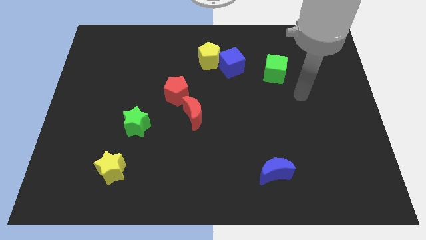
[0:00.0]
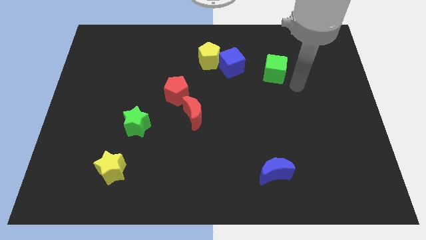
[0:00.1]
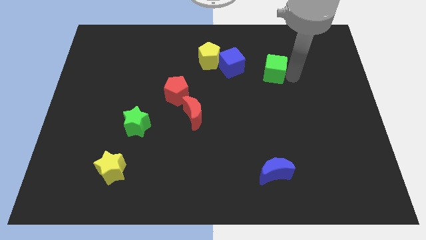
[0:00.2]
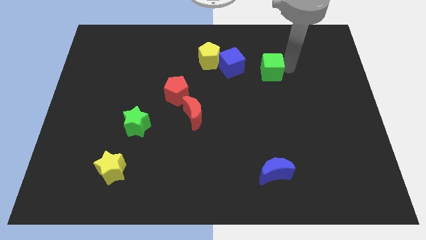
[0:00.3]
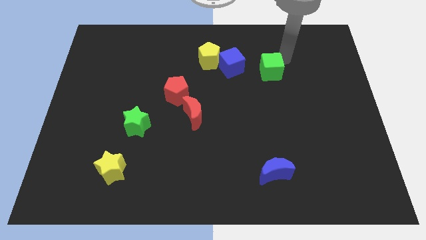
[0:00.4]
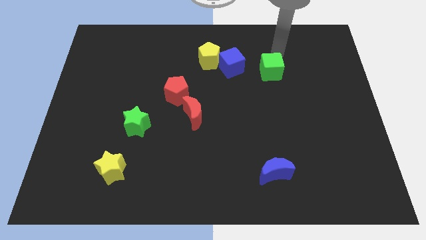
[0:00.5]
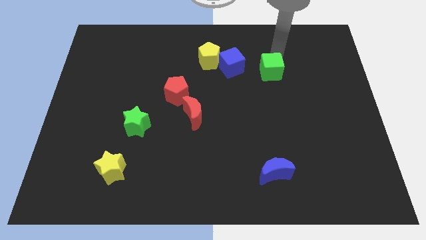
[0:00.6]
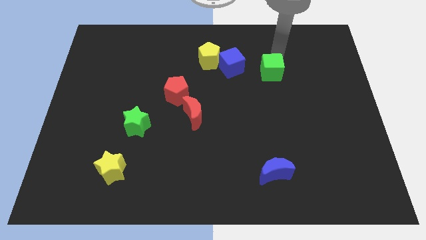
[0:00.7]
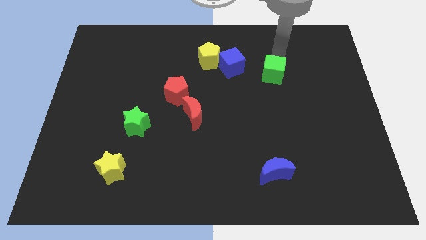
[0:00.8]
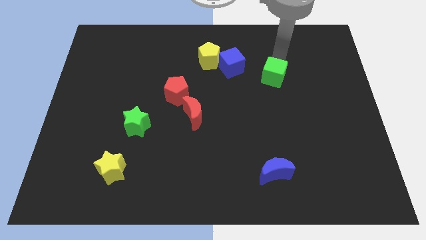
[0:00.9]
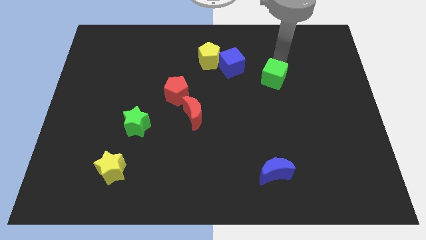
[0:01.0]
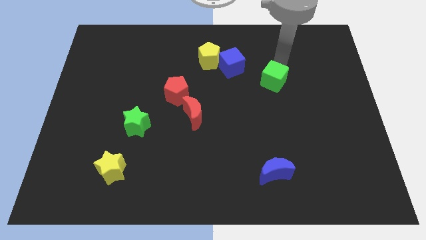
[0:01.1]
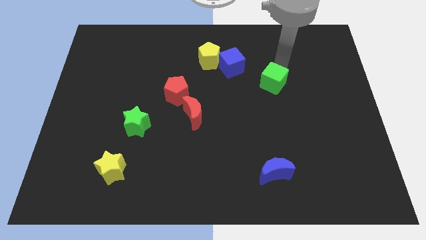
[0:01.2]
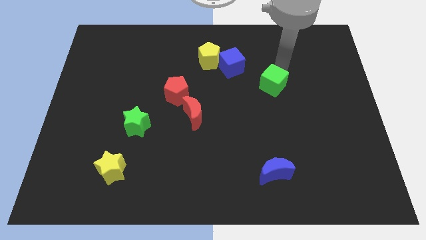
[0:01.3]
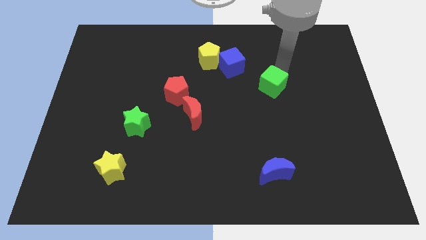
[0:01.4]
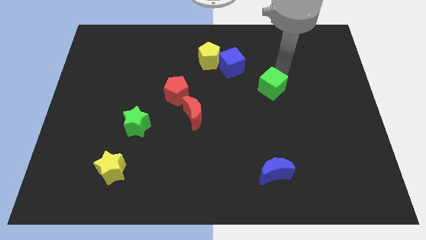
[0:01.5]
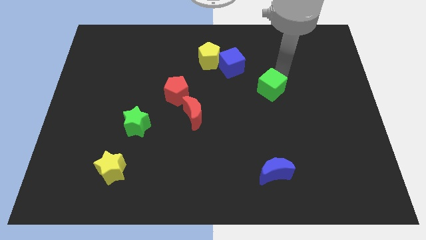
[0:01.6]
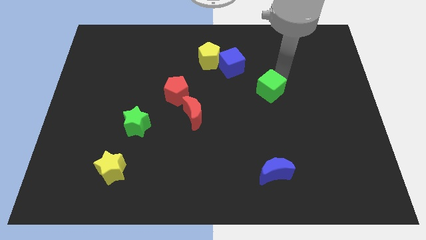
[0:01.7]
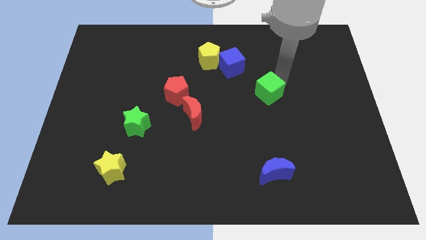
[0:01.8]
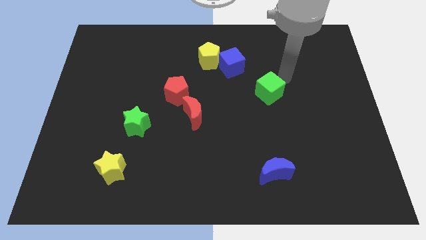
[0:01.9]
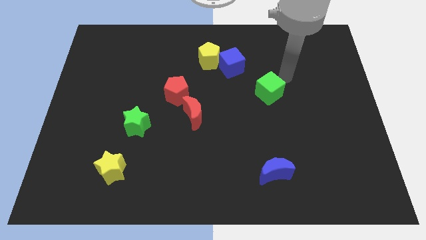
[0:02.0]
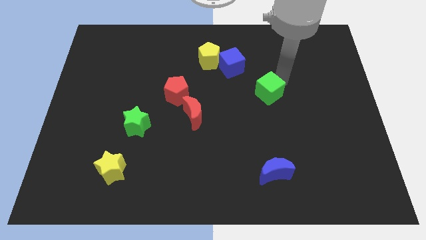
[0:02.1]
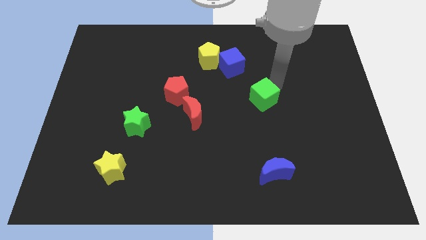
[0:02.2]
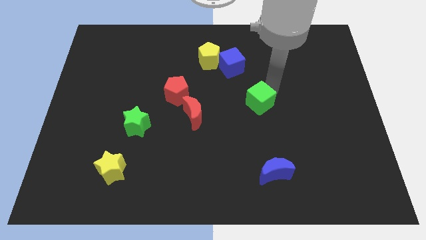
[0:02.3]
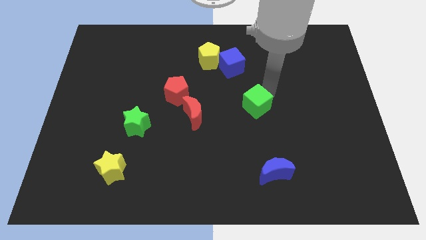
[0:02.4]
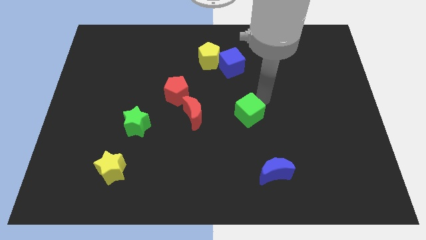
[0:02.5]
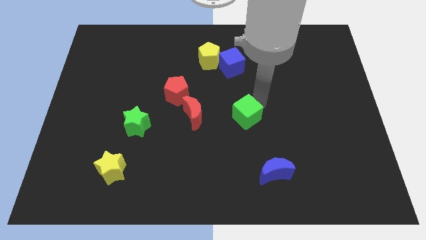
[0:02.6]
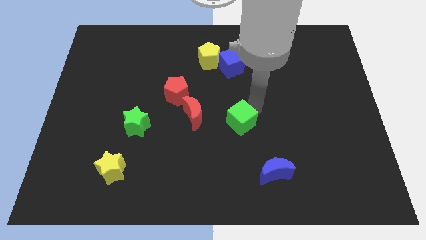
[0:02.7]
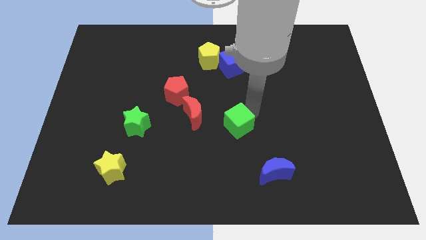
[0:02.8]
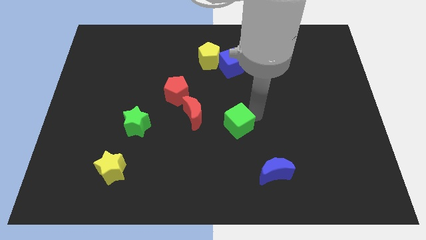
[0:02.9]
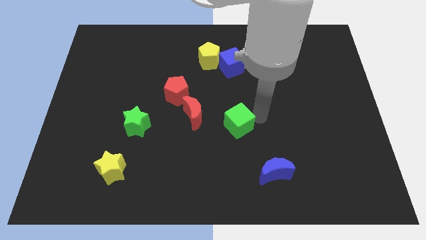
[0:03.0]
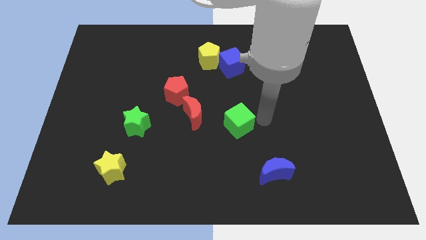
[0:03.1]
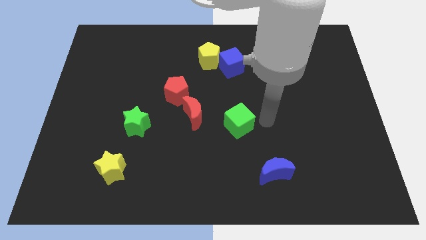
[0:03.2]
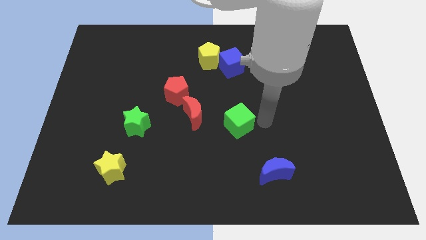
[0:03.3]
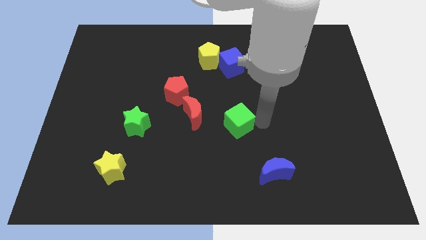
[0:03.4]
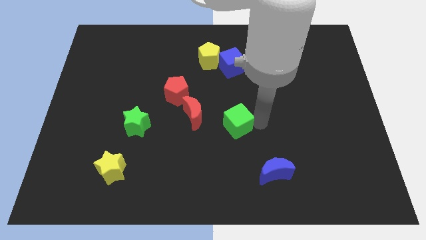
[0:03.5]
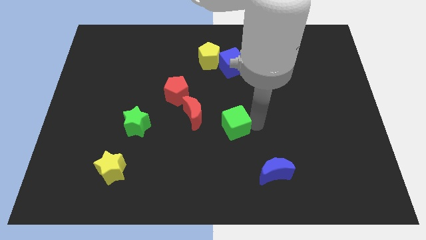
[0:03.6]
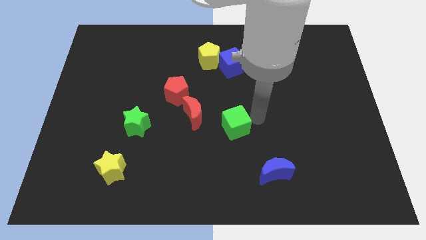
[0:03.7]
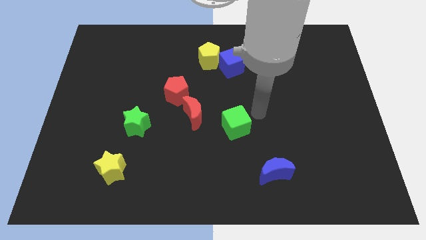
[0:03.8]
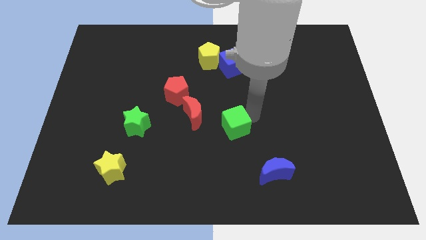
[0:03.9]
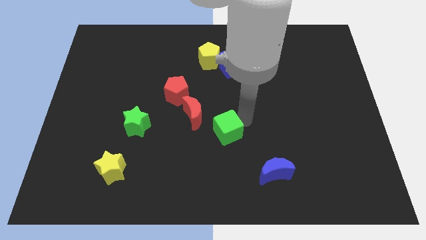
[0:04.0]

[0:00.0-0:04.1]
move the green cube down and left

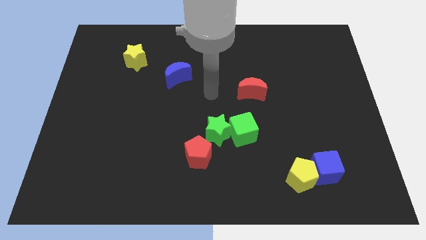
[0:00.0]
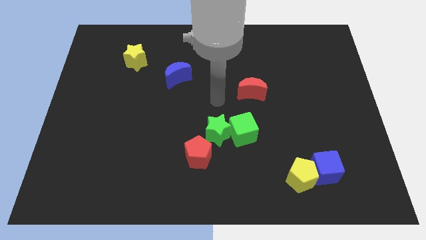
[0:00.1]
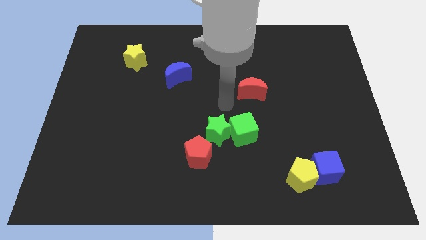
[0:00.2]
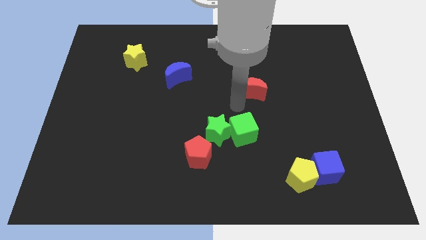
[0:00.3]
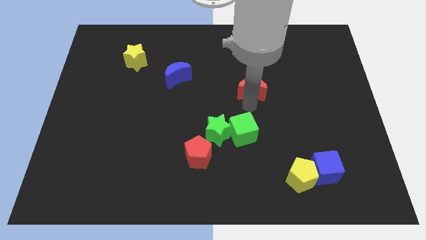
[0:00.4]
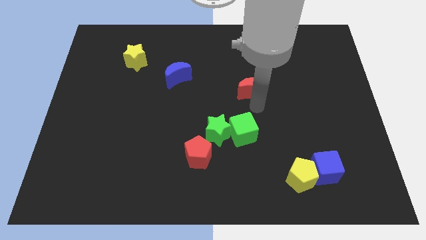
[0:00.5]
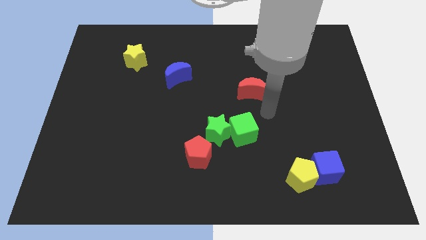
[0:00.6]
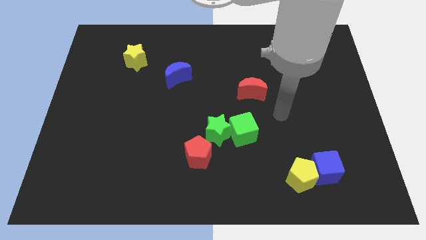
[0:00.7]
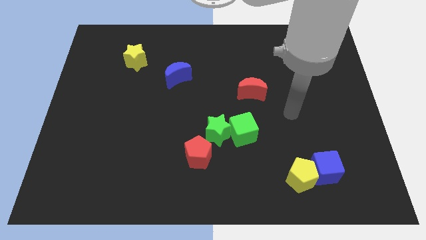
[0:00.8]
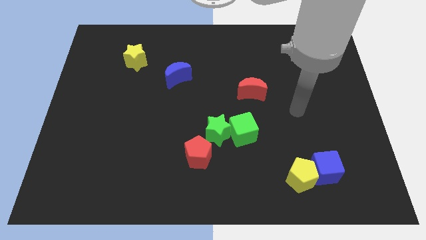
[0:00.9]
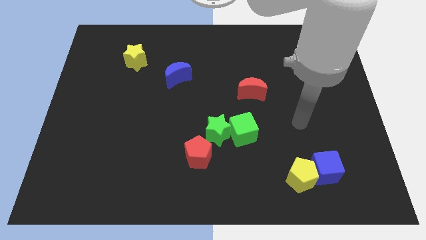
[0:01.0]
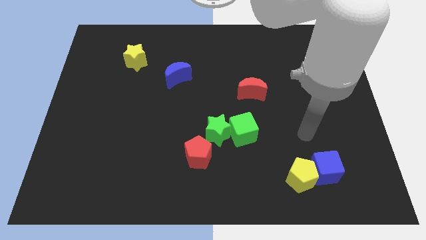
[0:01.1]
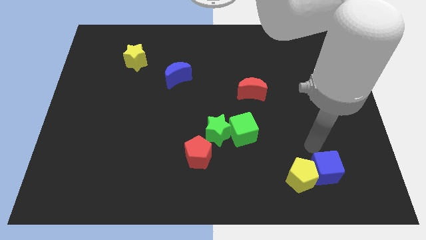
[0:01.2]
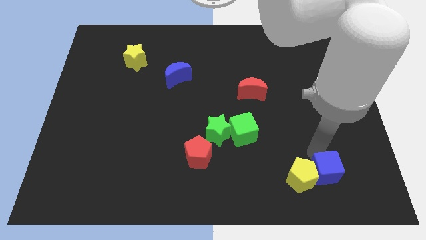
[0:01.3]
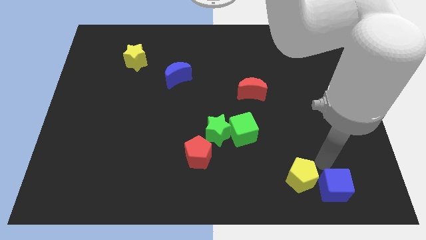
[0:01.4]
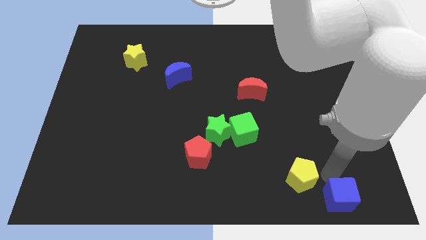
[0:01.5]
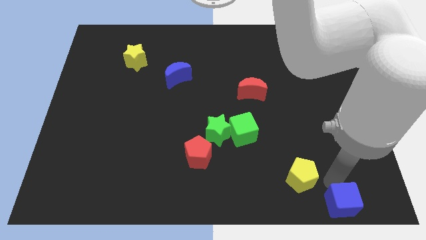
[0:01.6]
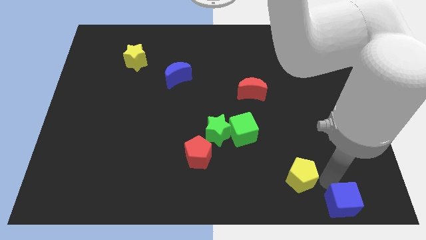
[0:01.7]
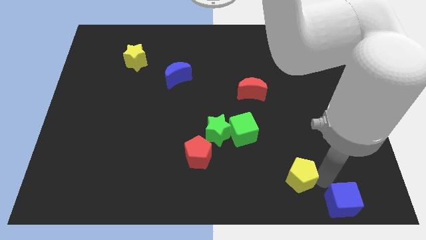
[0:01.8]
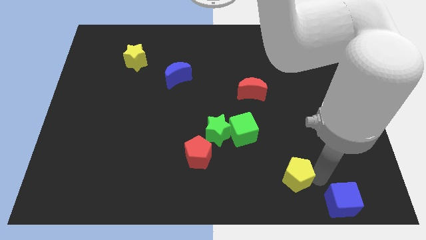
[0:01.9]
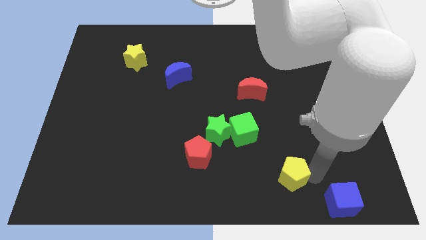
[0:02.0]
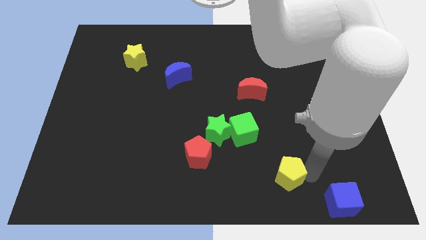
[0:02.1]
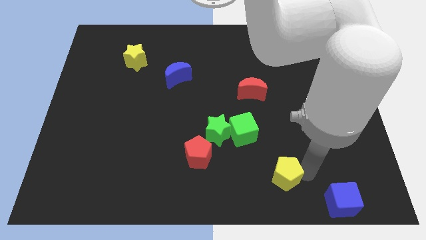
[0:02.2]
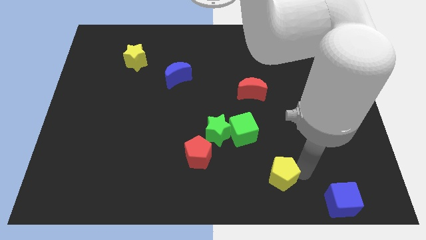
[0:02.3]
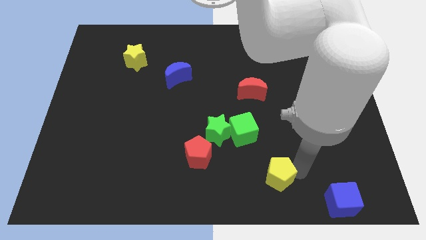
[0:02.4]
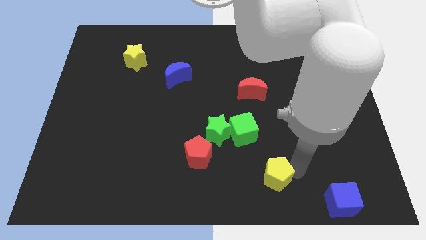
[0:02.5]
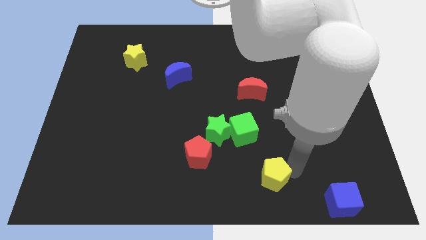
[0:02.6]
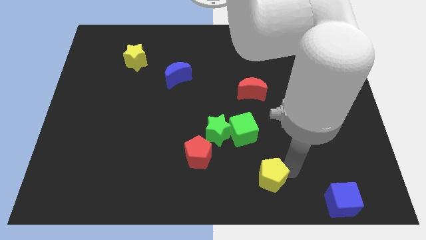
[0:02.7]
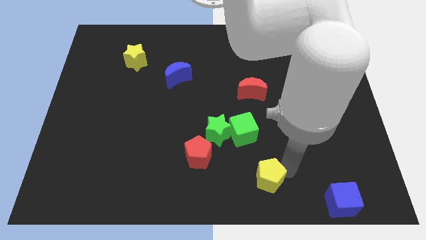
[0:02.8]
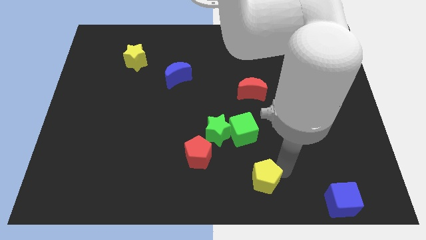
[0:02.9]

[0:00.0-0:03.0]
move the yellow pentagon slightly left

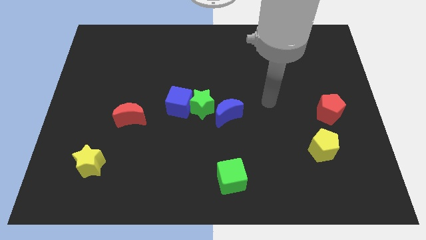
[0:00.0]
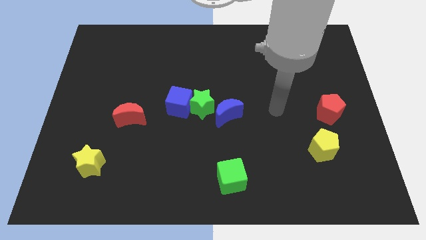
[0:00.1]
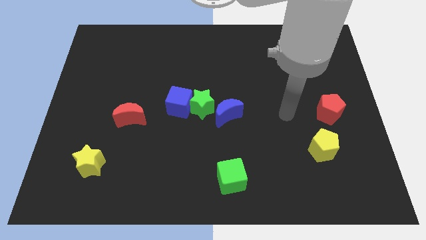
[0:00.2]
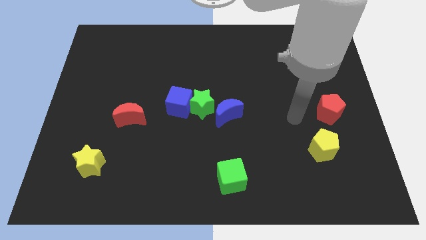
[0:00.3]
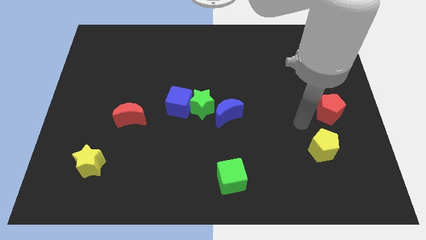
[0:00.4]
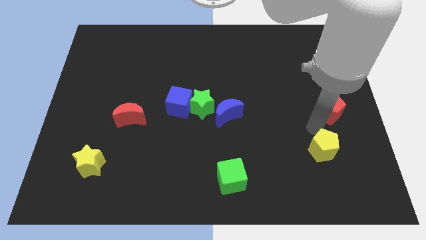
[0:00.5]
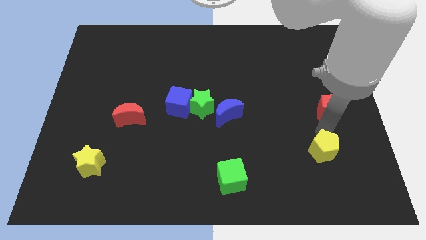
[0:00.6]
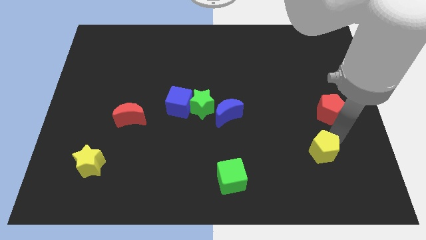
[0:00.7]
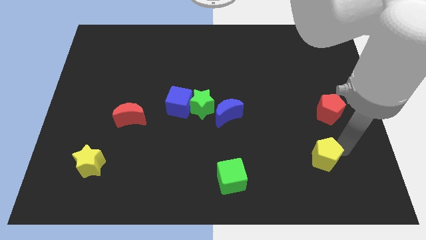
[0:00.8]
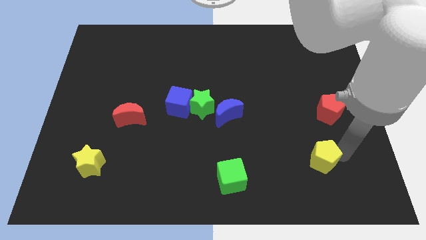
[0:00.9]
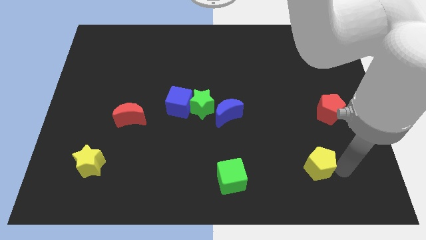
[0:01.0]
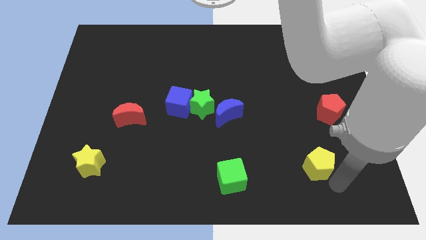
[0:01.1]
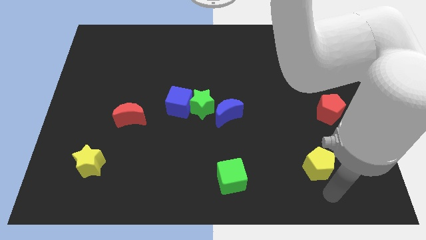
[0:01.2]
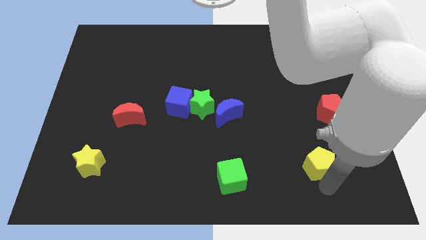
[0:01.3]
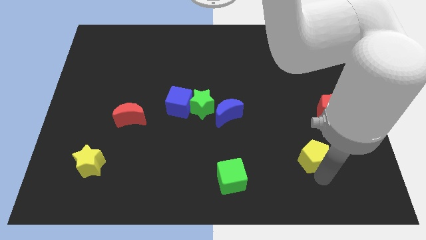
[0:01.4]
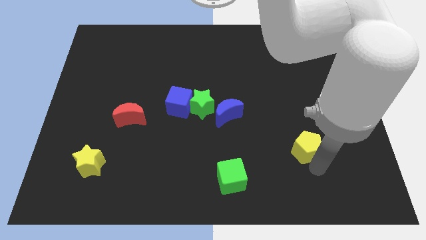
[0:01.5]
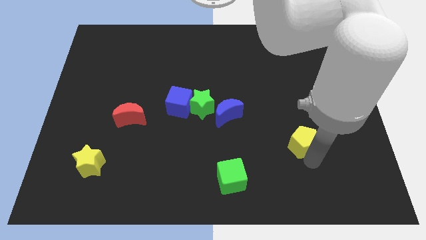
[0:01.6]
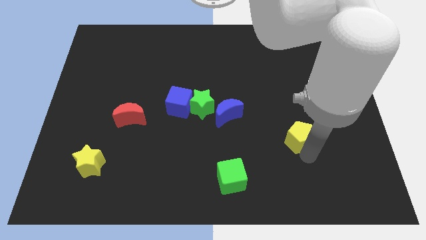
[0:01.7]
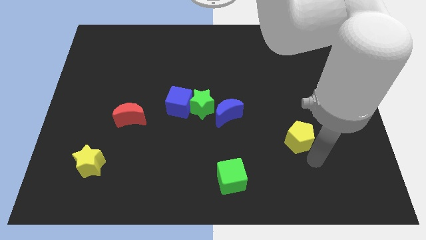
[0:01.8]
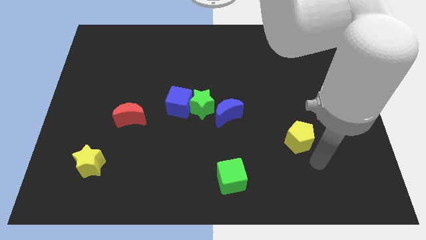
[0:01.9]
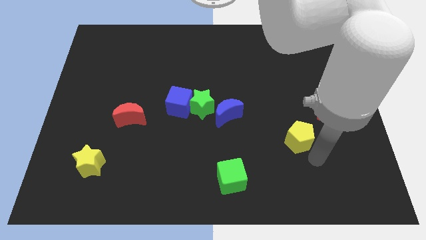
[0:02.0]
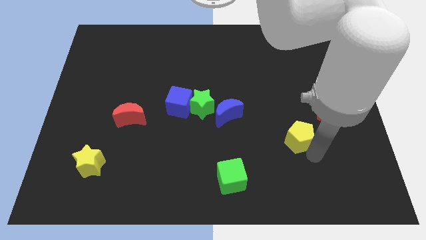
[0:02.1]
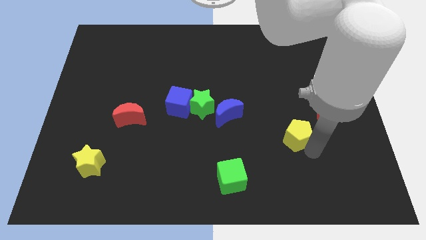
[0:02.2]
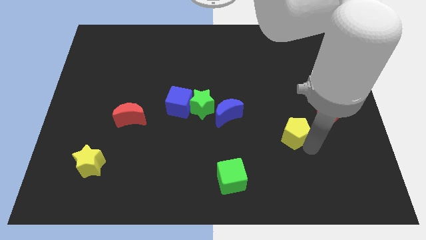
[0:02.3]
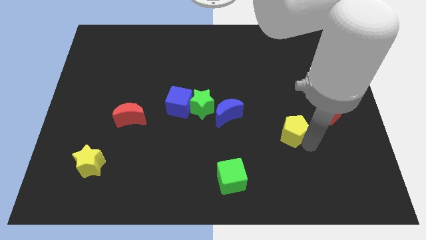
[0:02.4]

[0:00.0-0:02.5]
slightly slide the yellow pentagon up and to the left
